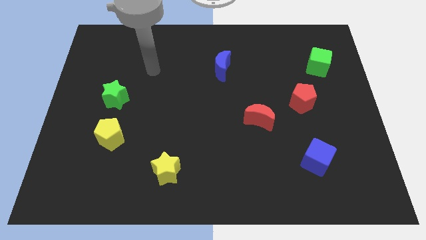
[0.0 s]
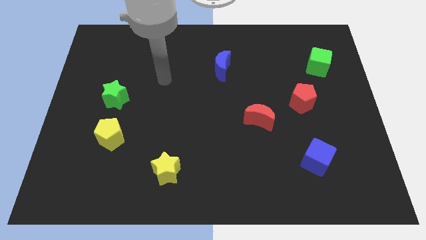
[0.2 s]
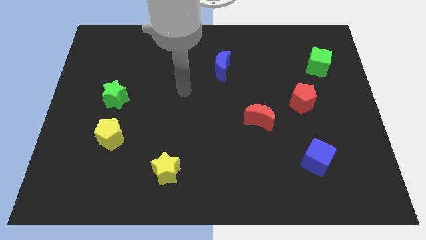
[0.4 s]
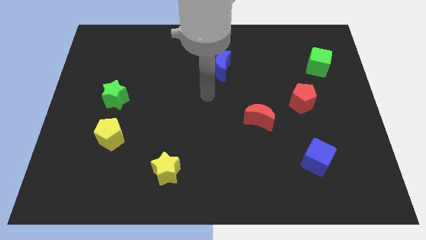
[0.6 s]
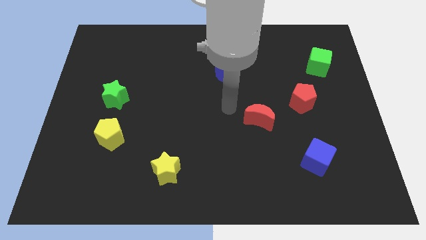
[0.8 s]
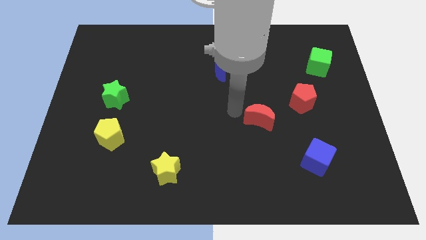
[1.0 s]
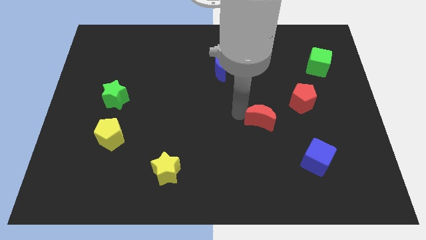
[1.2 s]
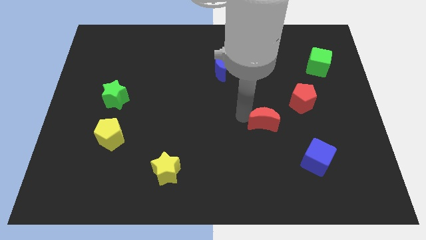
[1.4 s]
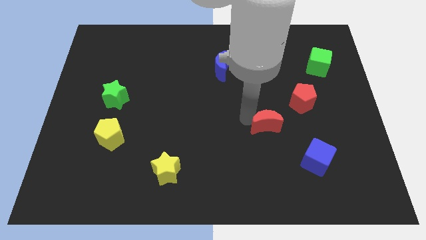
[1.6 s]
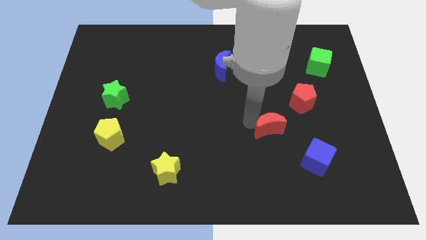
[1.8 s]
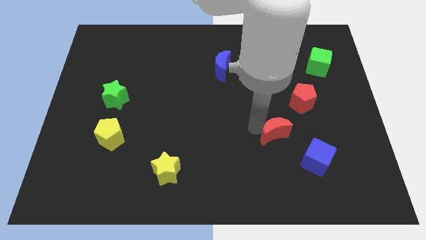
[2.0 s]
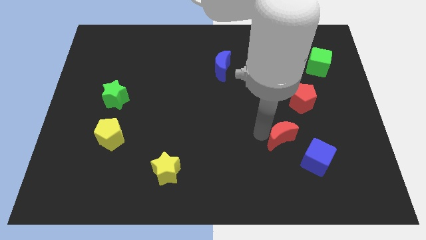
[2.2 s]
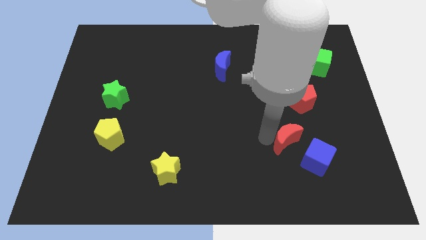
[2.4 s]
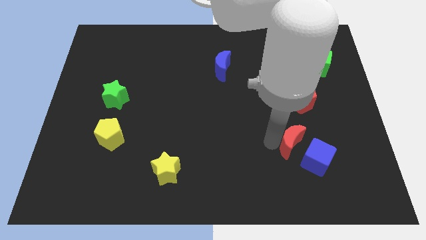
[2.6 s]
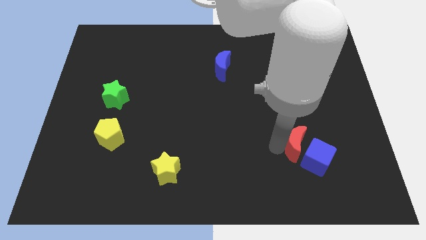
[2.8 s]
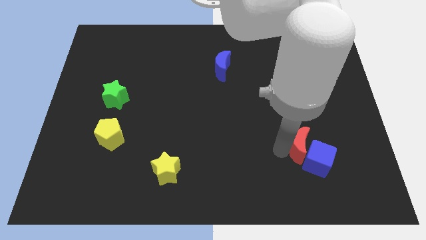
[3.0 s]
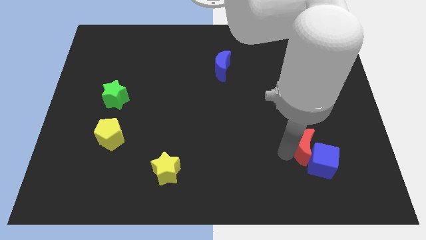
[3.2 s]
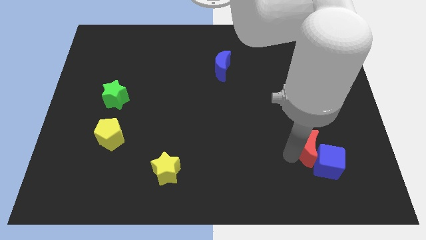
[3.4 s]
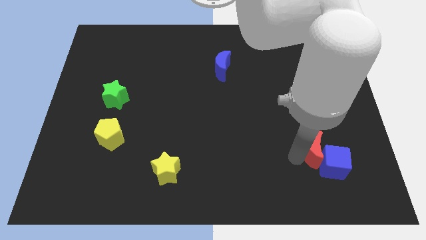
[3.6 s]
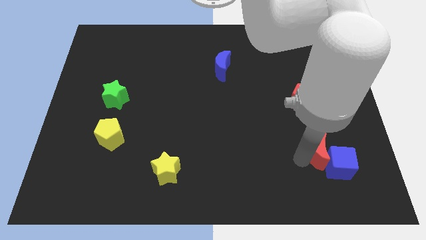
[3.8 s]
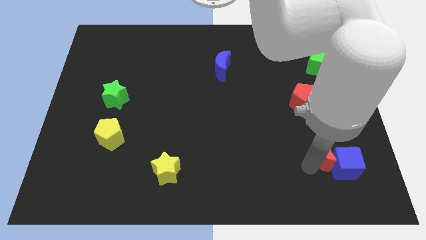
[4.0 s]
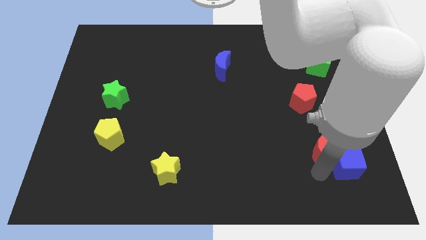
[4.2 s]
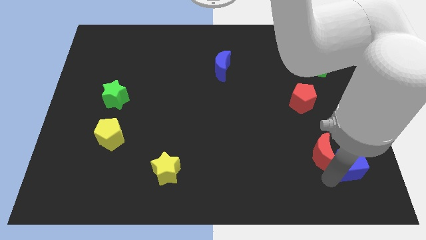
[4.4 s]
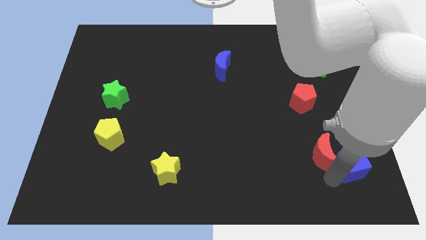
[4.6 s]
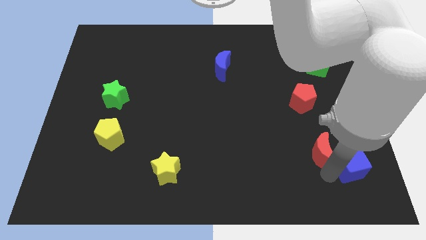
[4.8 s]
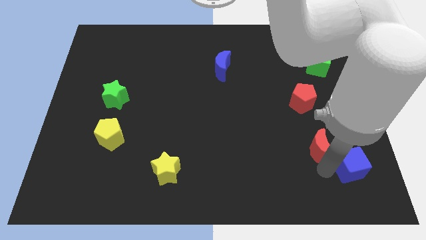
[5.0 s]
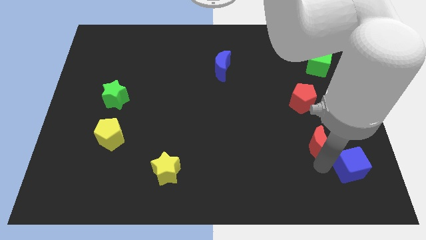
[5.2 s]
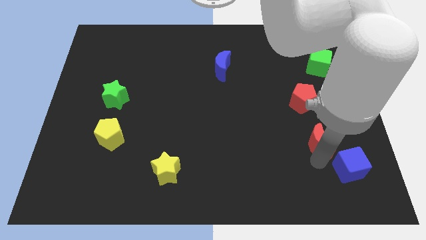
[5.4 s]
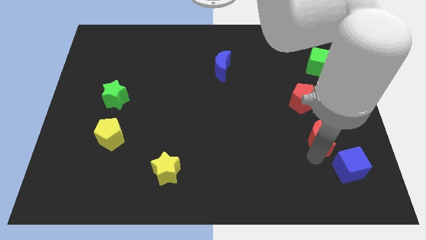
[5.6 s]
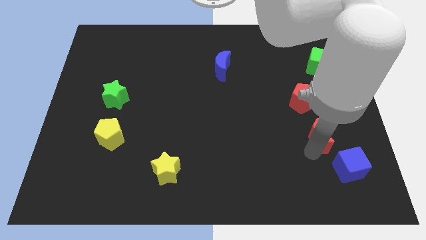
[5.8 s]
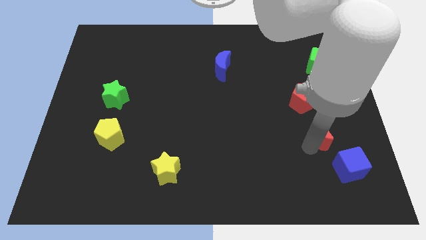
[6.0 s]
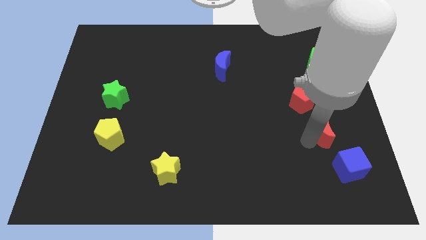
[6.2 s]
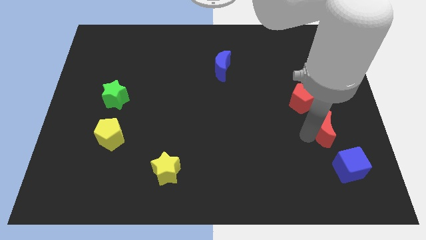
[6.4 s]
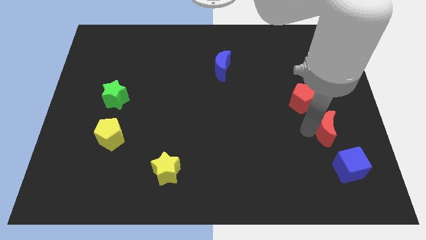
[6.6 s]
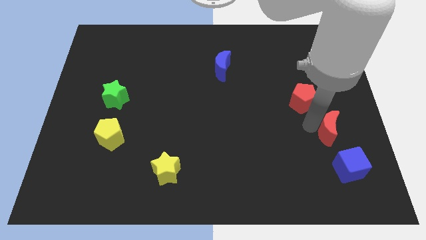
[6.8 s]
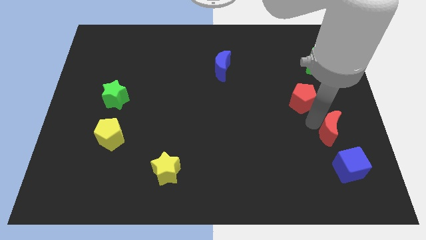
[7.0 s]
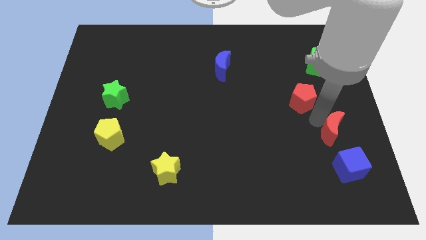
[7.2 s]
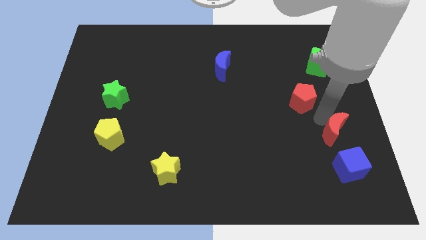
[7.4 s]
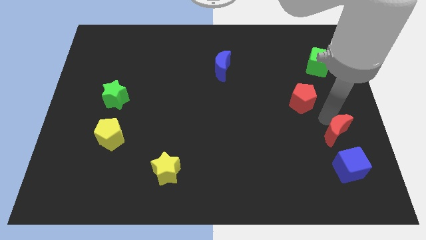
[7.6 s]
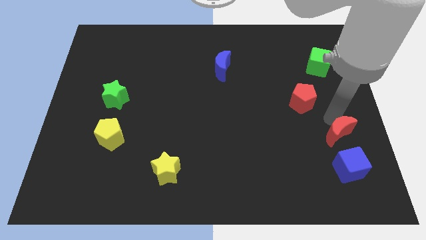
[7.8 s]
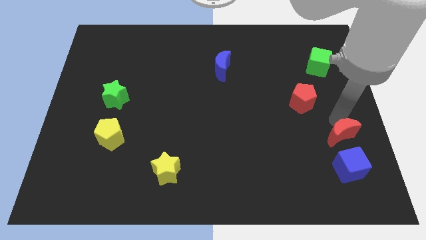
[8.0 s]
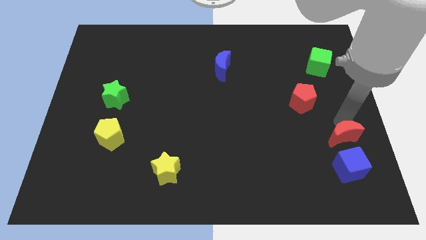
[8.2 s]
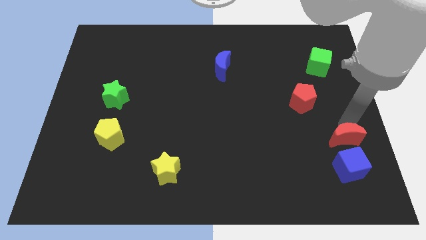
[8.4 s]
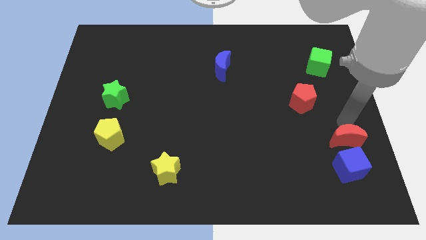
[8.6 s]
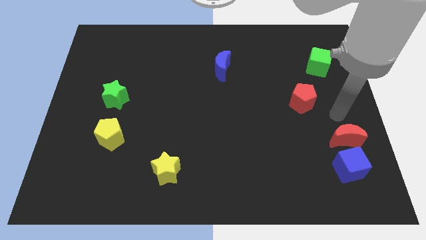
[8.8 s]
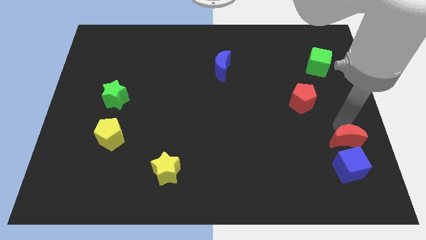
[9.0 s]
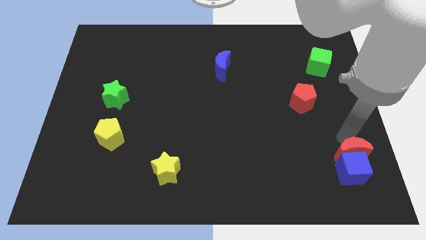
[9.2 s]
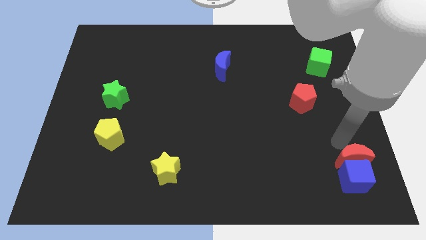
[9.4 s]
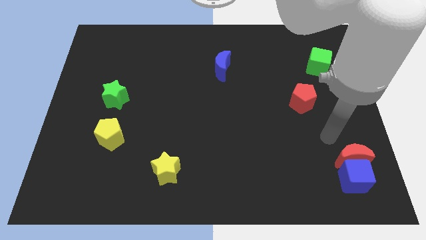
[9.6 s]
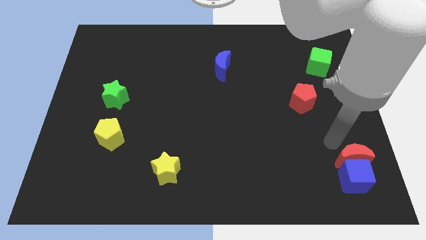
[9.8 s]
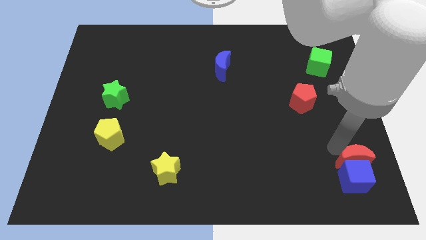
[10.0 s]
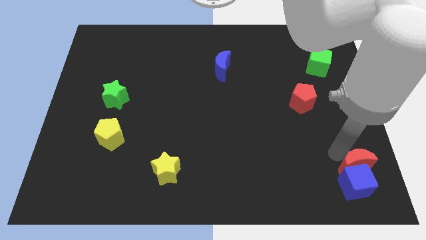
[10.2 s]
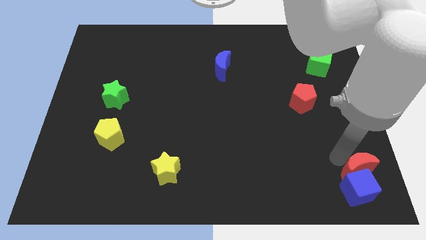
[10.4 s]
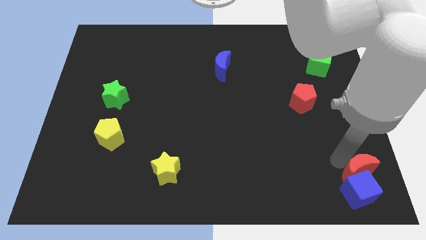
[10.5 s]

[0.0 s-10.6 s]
push the red moon to the lower right corner
